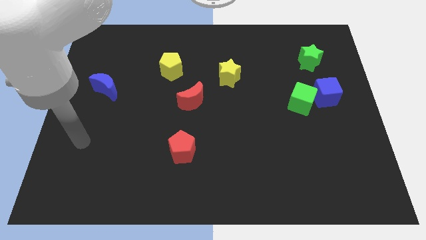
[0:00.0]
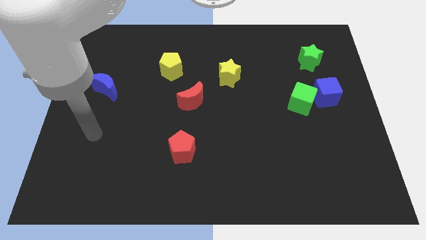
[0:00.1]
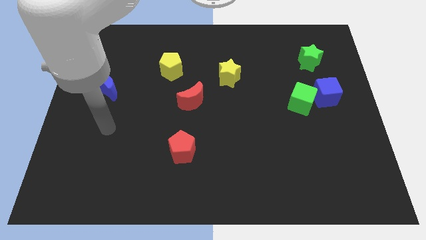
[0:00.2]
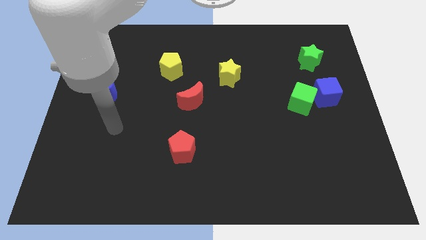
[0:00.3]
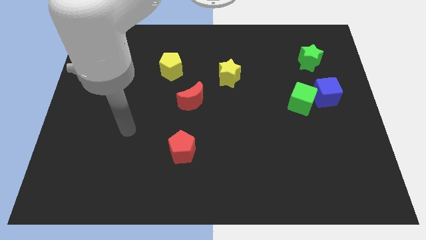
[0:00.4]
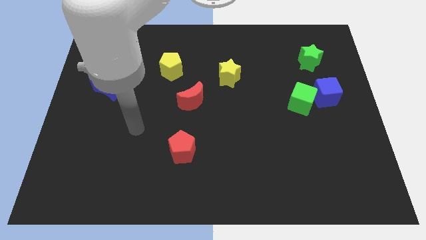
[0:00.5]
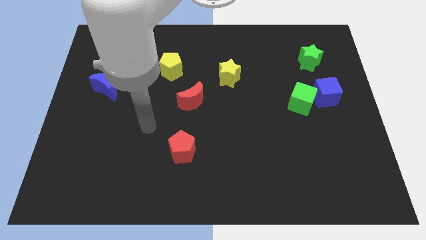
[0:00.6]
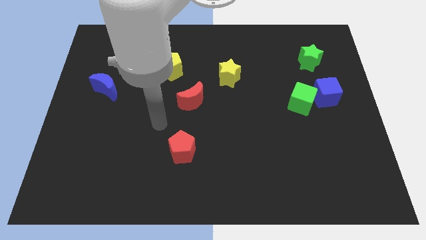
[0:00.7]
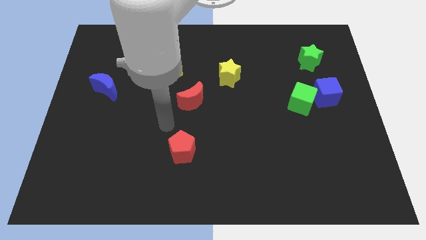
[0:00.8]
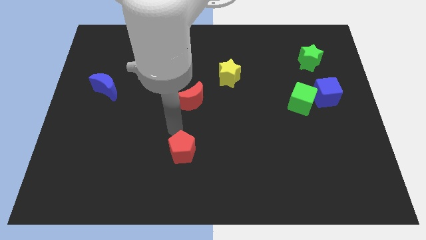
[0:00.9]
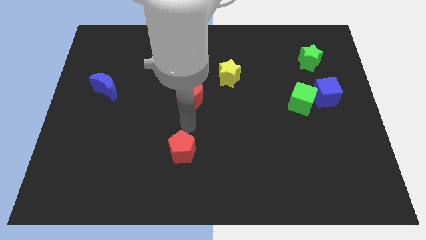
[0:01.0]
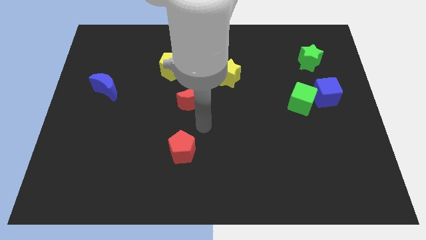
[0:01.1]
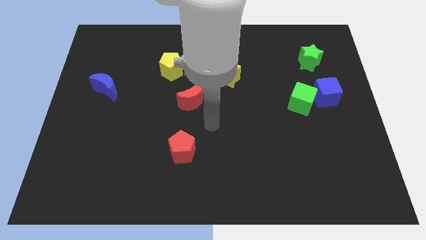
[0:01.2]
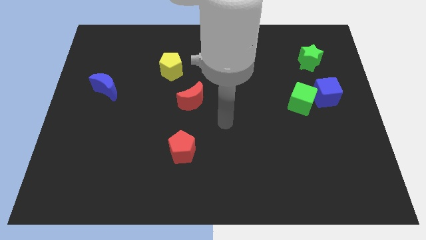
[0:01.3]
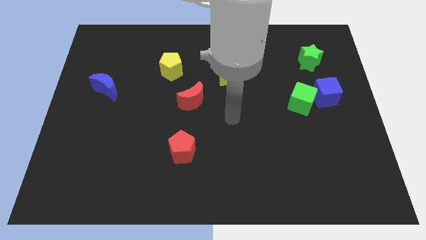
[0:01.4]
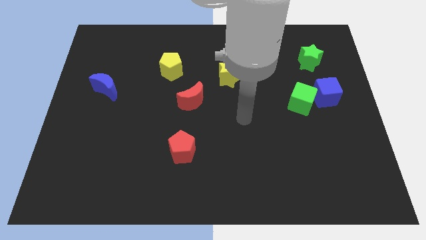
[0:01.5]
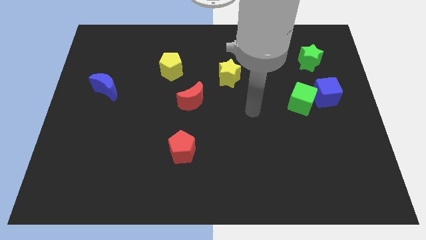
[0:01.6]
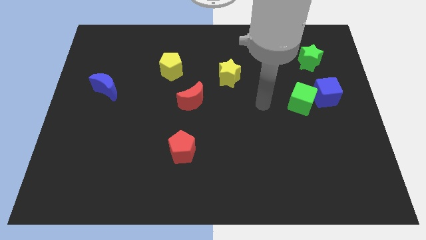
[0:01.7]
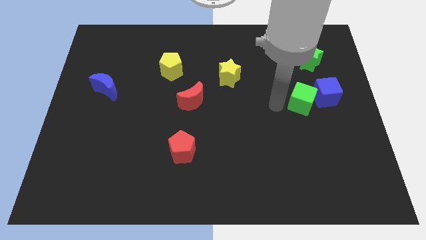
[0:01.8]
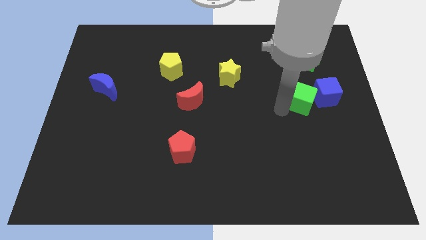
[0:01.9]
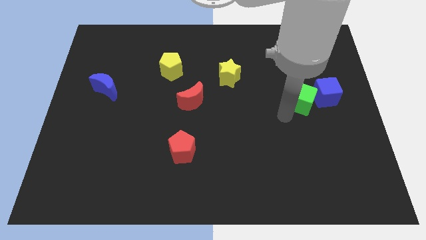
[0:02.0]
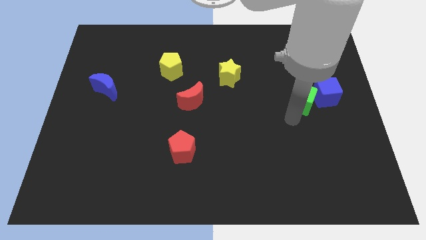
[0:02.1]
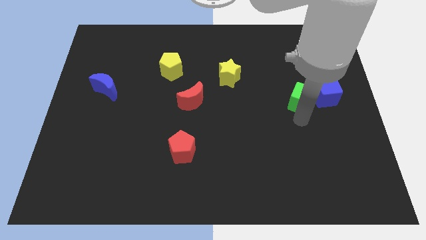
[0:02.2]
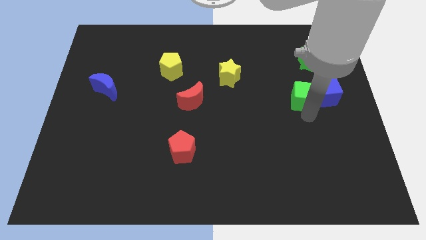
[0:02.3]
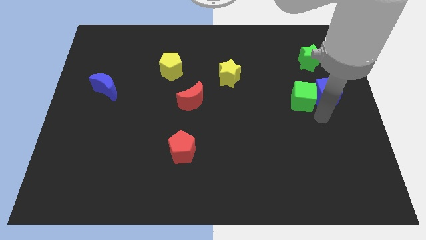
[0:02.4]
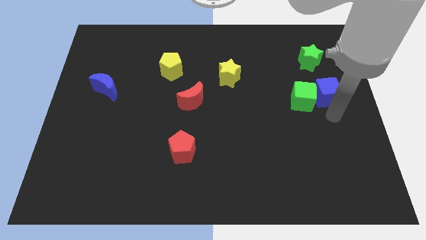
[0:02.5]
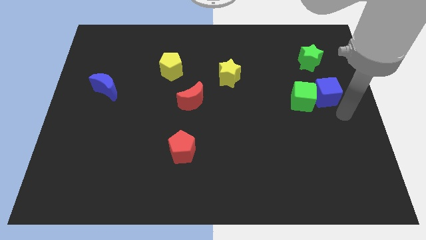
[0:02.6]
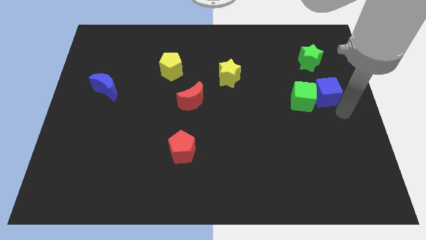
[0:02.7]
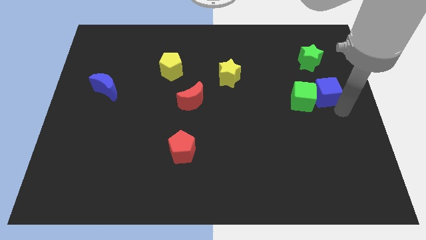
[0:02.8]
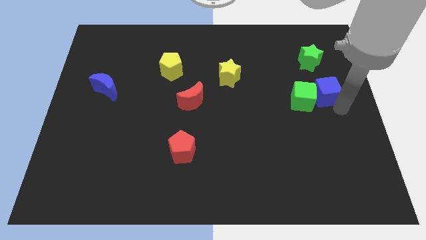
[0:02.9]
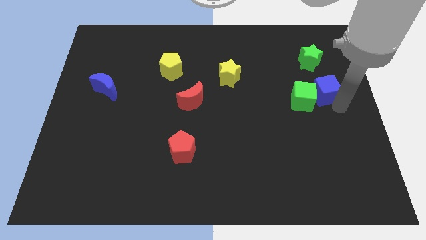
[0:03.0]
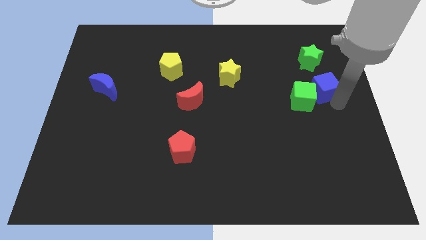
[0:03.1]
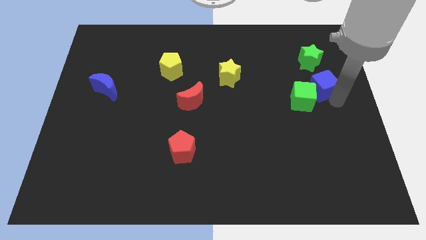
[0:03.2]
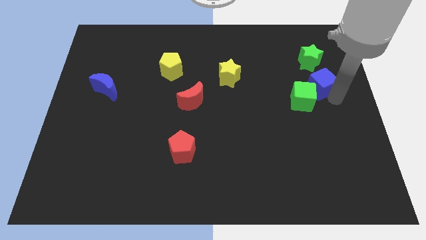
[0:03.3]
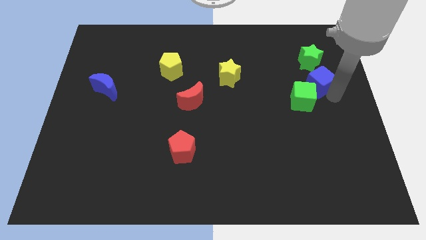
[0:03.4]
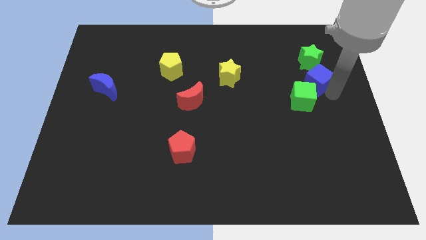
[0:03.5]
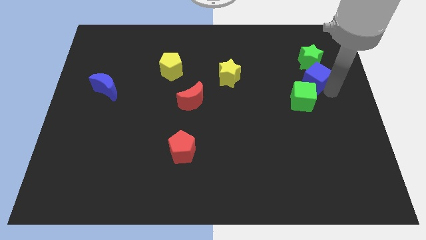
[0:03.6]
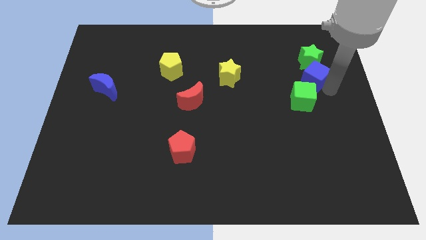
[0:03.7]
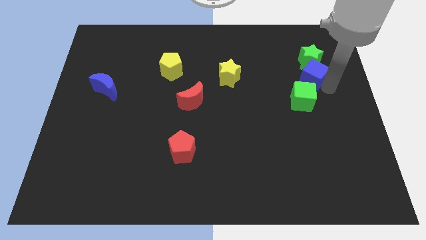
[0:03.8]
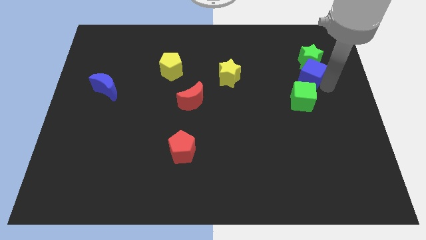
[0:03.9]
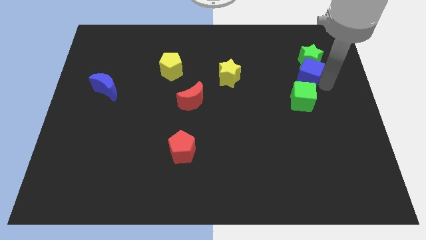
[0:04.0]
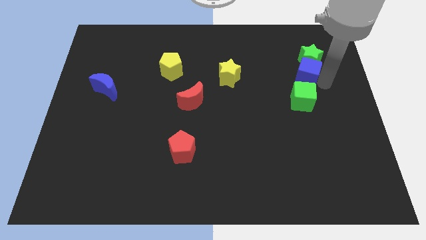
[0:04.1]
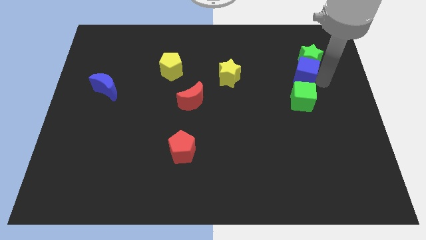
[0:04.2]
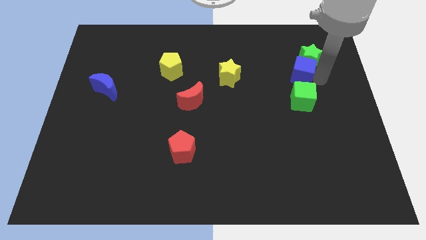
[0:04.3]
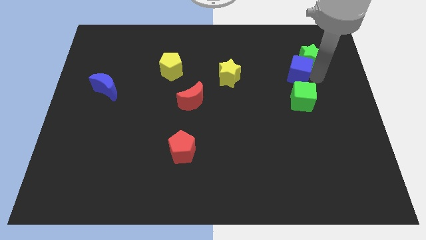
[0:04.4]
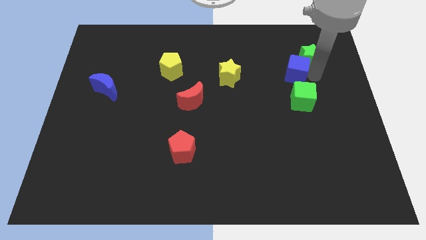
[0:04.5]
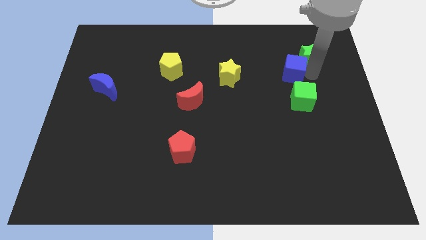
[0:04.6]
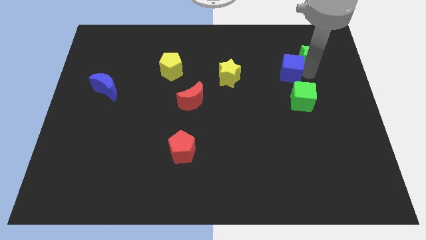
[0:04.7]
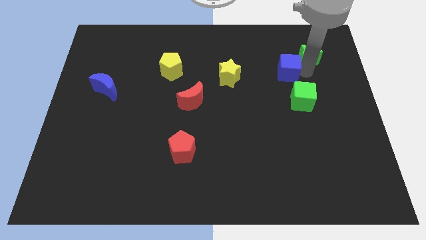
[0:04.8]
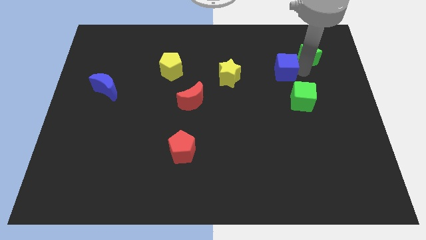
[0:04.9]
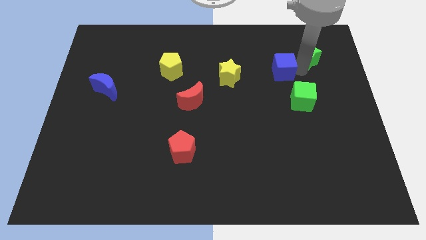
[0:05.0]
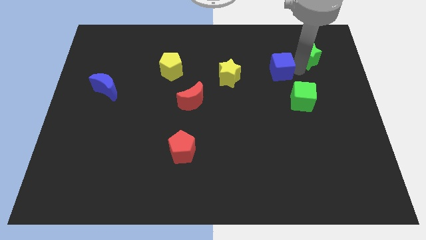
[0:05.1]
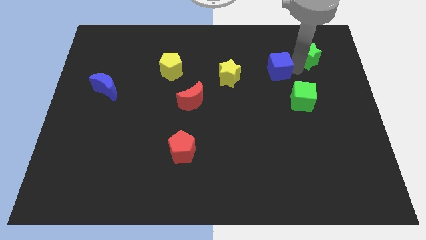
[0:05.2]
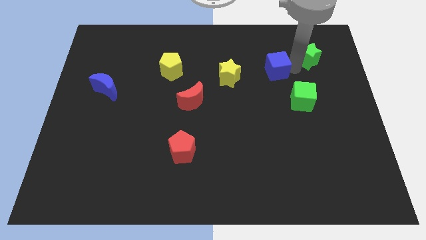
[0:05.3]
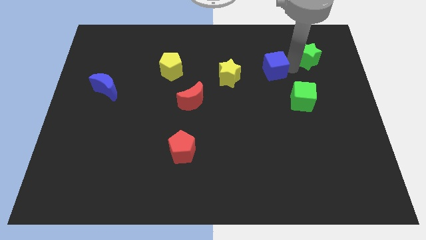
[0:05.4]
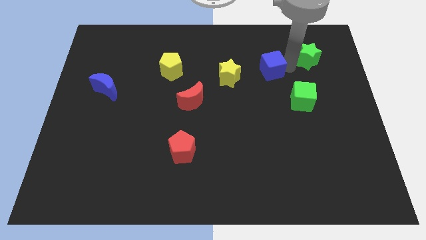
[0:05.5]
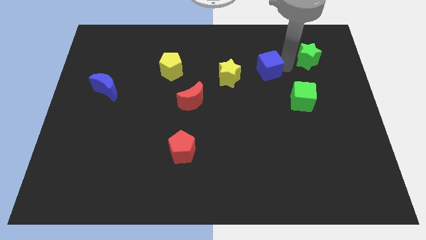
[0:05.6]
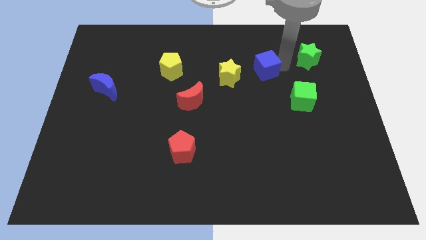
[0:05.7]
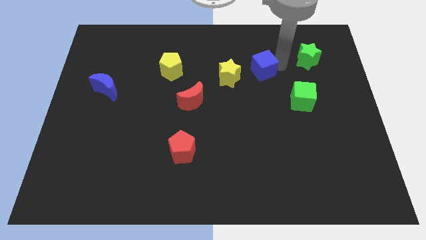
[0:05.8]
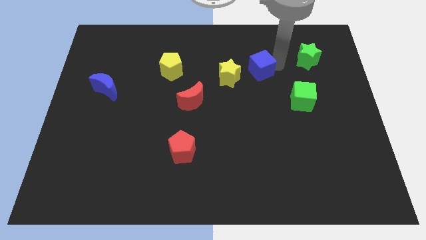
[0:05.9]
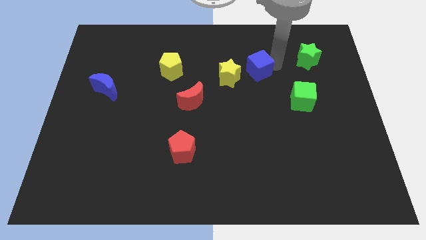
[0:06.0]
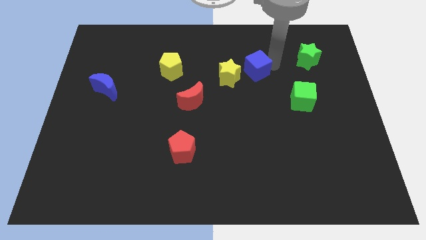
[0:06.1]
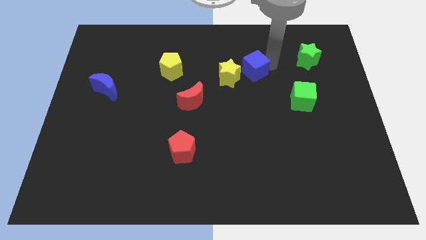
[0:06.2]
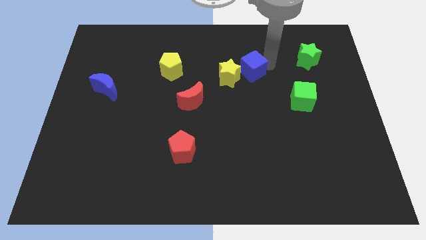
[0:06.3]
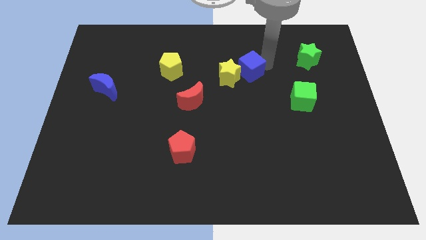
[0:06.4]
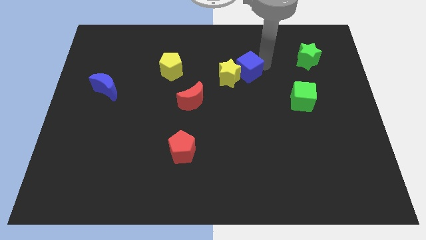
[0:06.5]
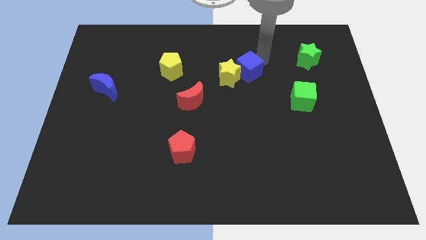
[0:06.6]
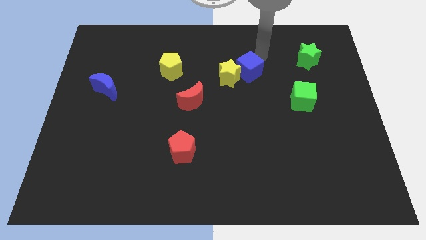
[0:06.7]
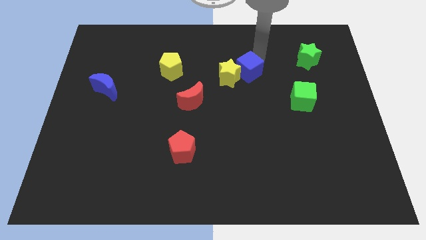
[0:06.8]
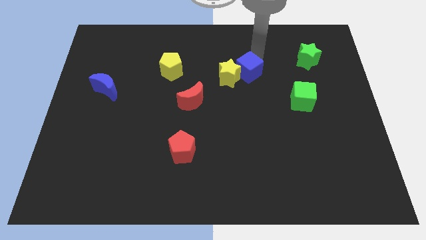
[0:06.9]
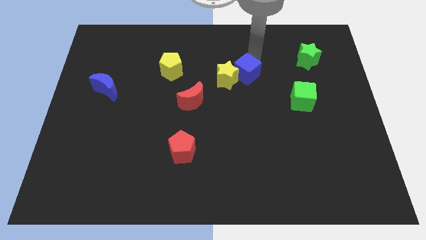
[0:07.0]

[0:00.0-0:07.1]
slide the blue cube to the center of the board
